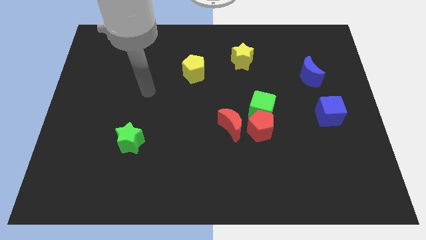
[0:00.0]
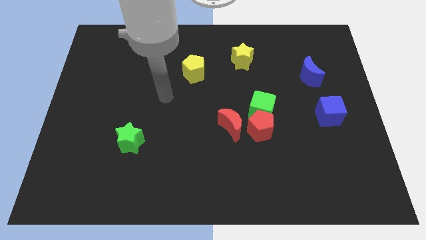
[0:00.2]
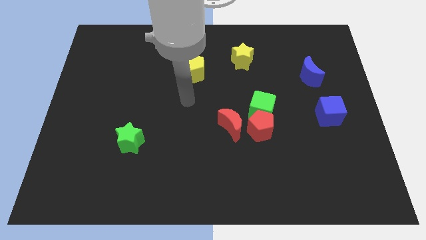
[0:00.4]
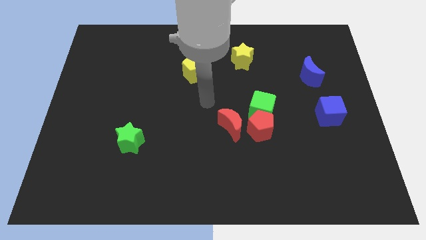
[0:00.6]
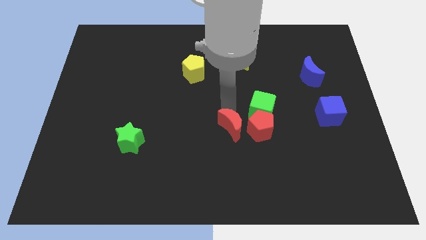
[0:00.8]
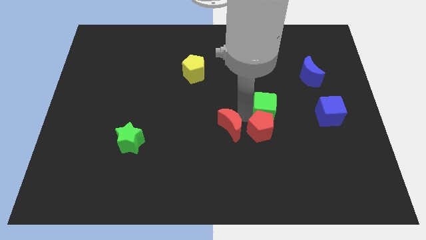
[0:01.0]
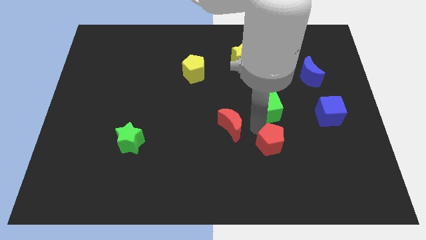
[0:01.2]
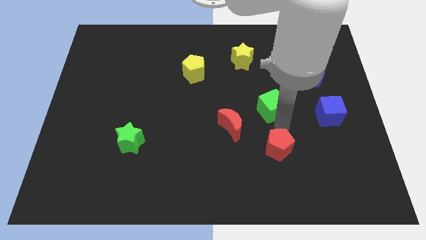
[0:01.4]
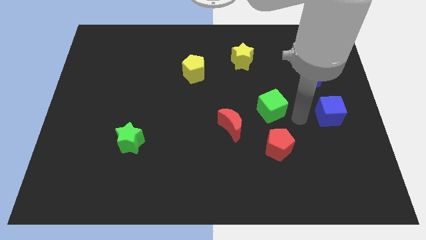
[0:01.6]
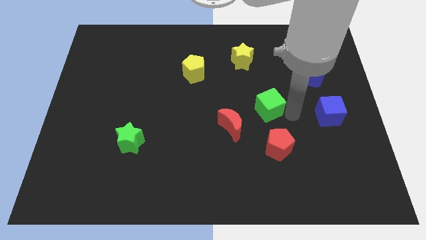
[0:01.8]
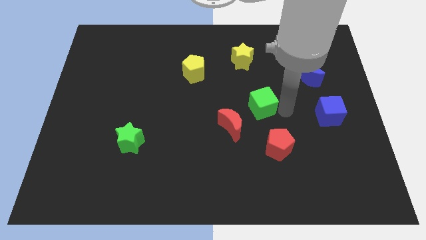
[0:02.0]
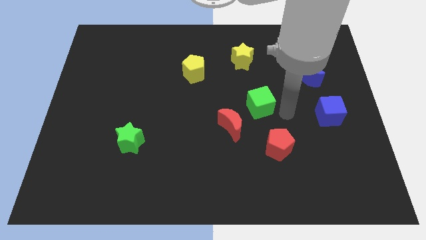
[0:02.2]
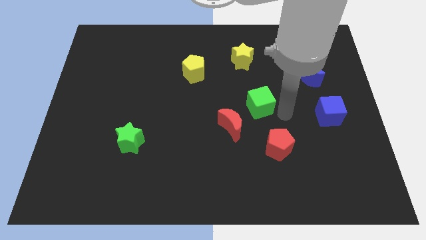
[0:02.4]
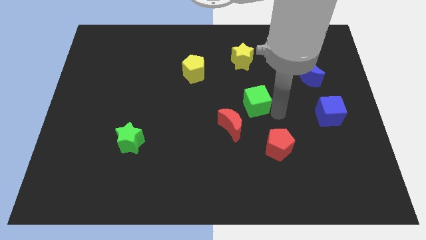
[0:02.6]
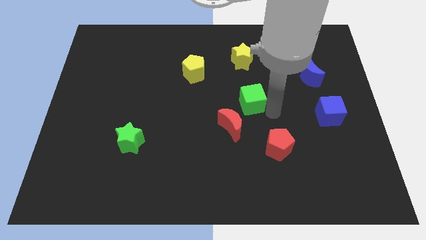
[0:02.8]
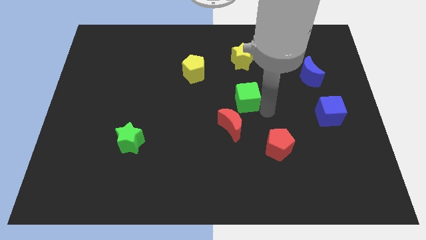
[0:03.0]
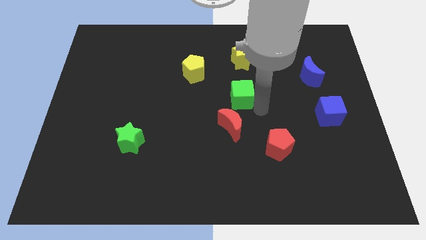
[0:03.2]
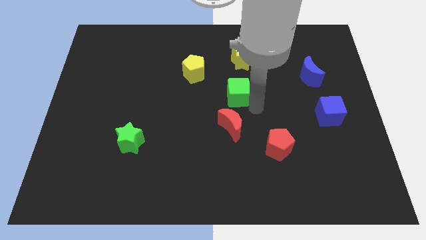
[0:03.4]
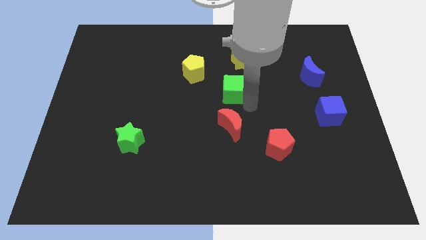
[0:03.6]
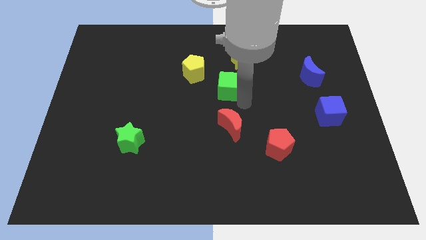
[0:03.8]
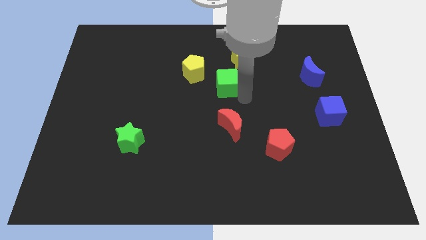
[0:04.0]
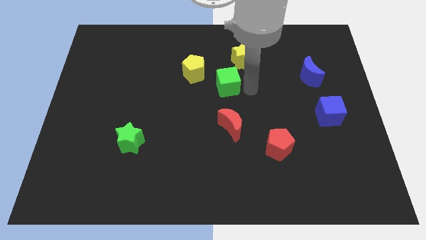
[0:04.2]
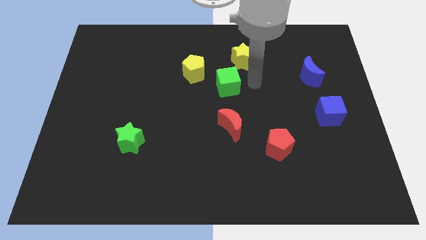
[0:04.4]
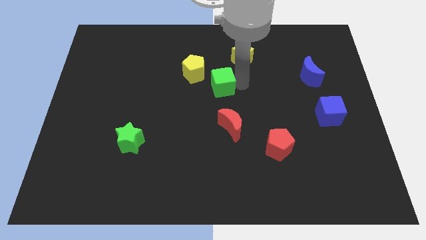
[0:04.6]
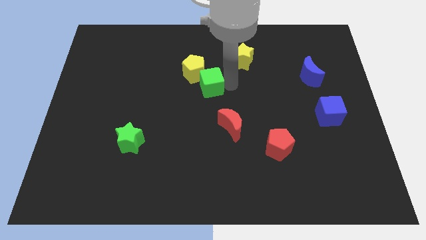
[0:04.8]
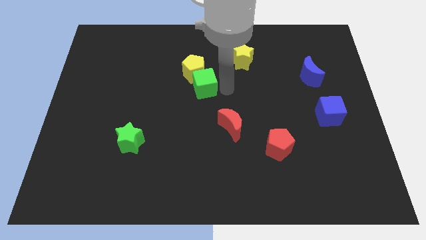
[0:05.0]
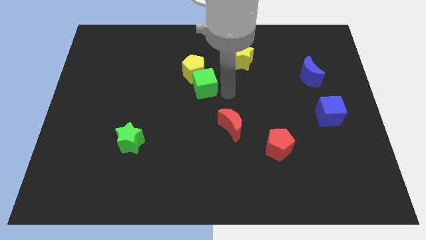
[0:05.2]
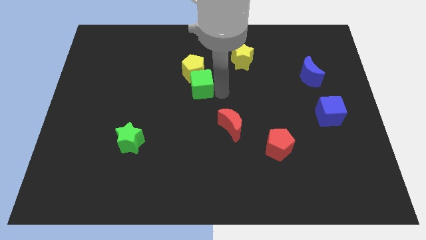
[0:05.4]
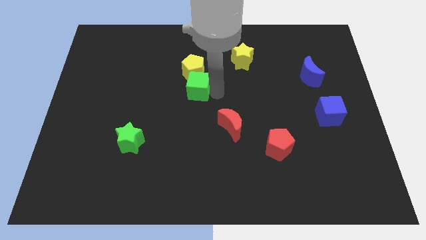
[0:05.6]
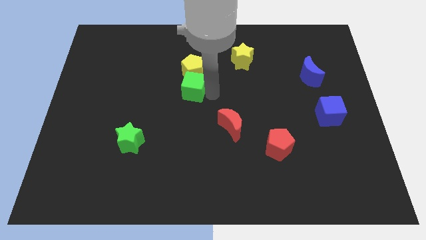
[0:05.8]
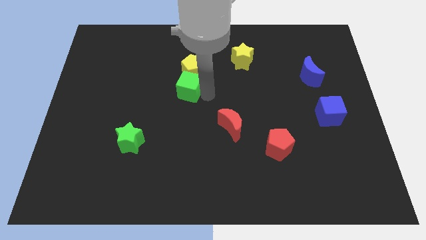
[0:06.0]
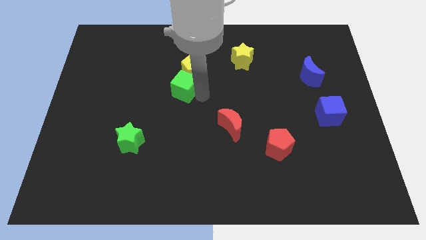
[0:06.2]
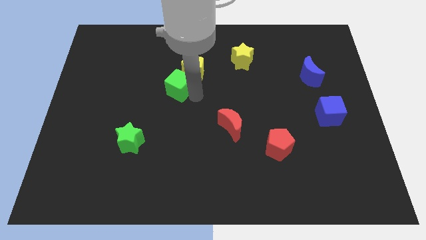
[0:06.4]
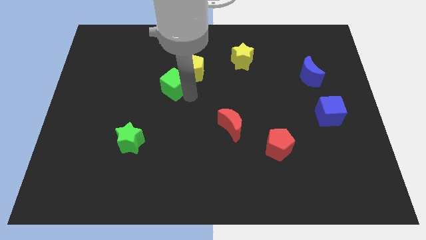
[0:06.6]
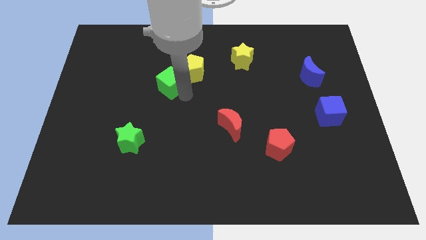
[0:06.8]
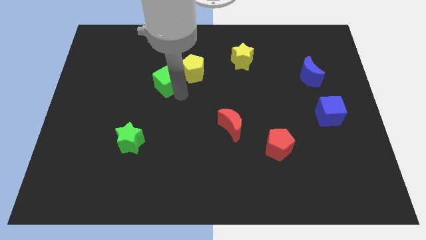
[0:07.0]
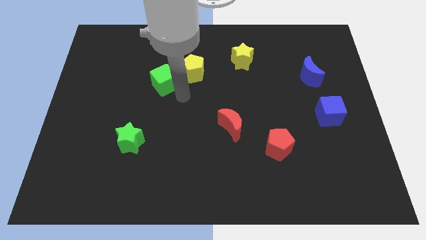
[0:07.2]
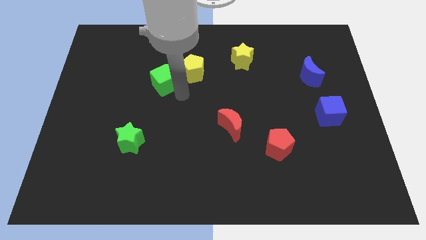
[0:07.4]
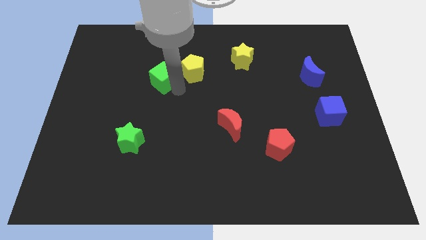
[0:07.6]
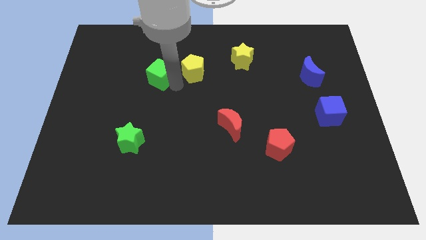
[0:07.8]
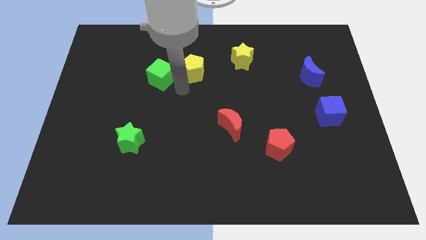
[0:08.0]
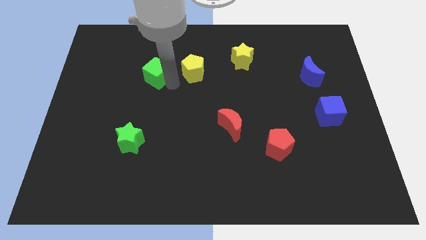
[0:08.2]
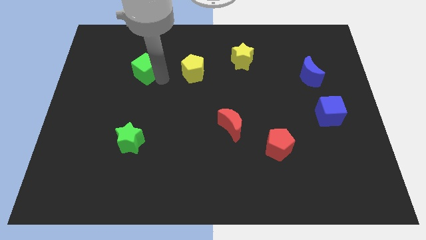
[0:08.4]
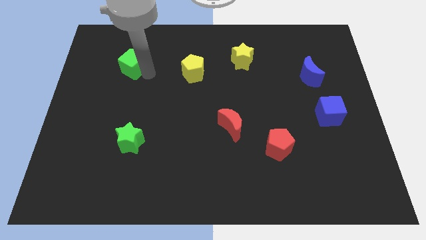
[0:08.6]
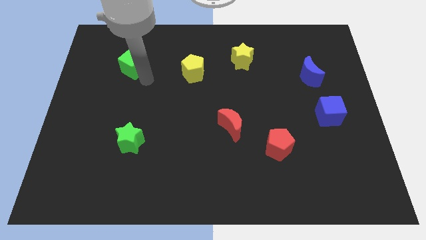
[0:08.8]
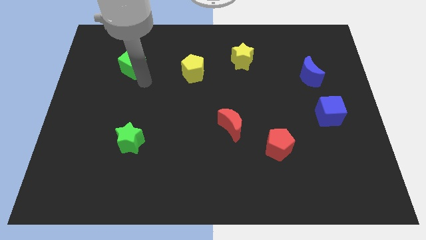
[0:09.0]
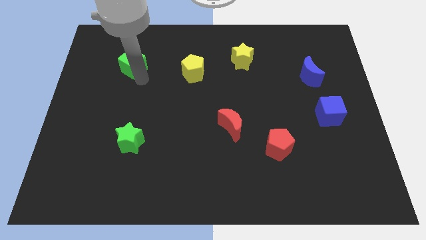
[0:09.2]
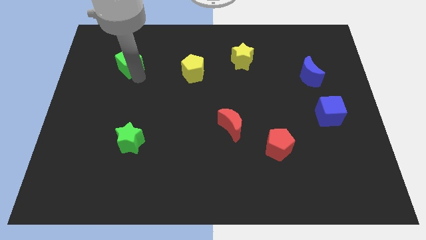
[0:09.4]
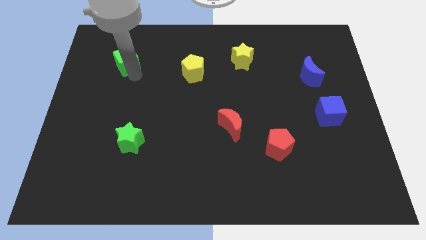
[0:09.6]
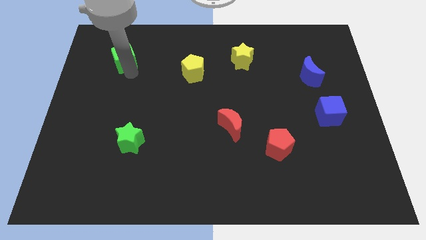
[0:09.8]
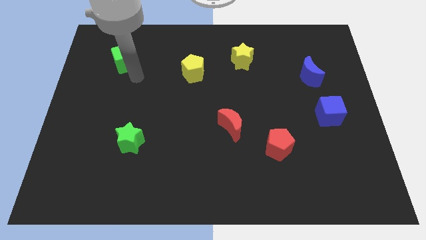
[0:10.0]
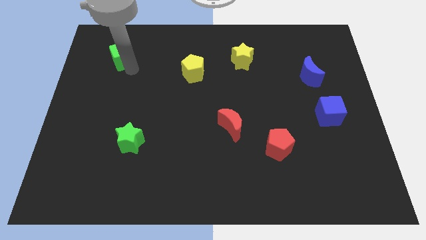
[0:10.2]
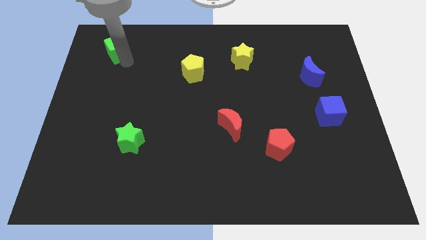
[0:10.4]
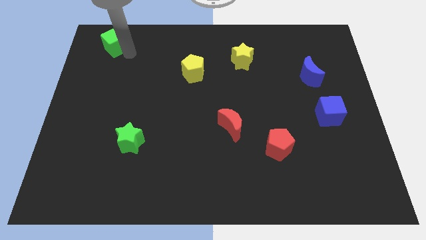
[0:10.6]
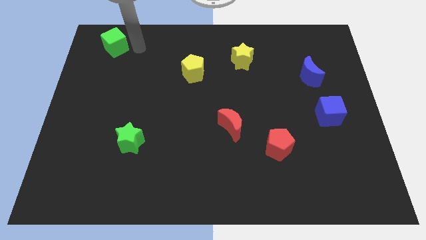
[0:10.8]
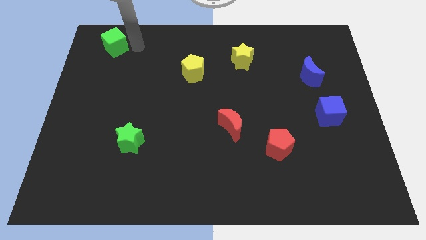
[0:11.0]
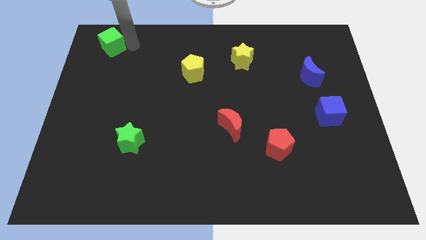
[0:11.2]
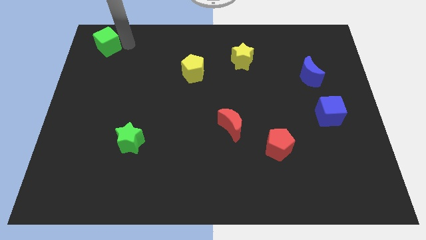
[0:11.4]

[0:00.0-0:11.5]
put the green cube to the top left corner

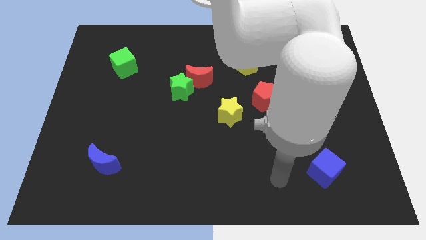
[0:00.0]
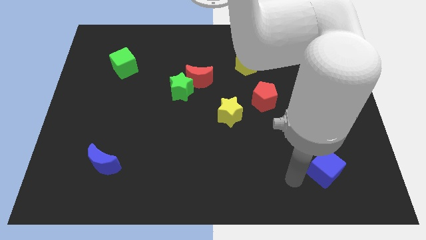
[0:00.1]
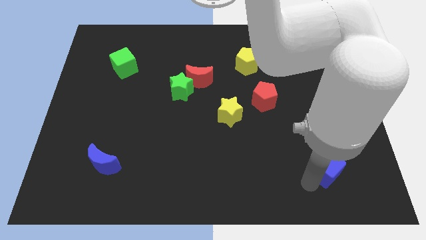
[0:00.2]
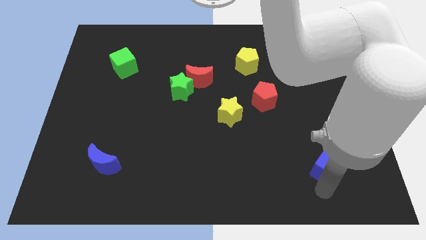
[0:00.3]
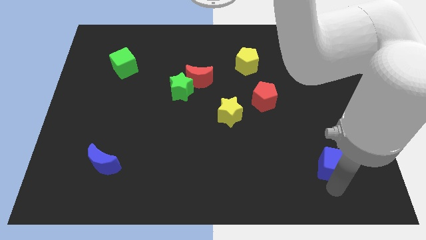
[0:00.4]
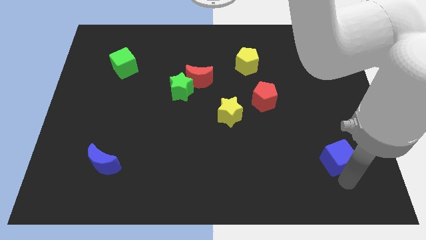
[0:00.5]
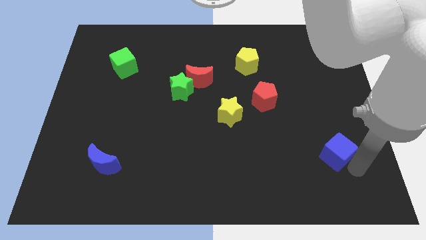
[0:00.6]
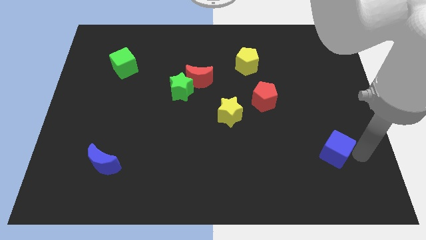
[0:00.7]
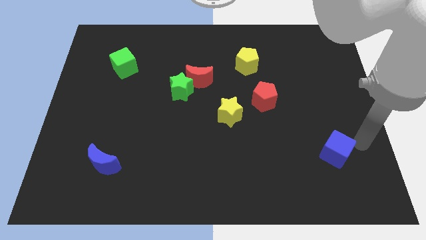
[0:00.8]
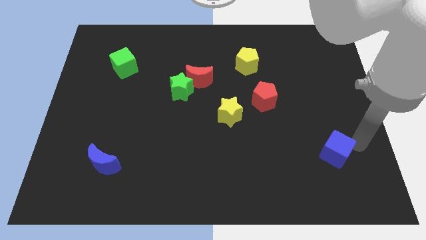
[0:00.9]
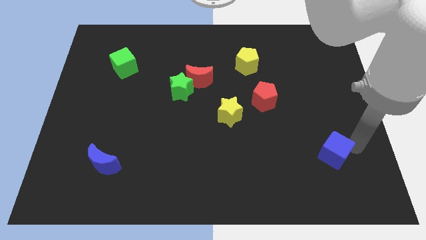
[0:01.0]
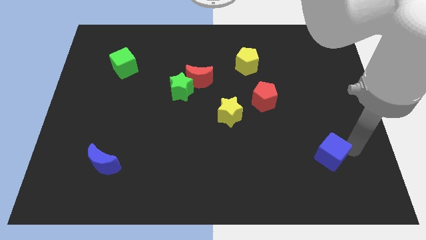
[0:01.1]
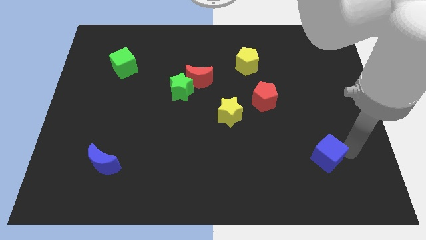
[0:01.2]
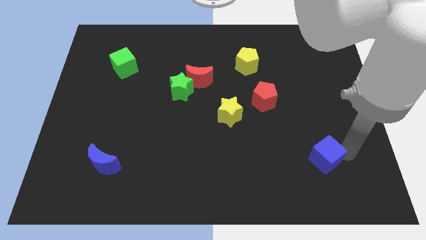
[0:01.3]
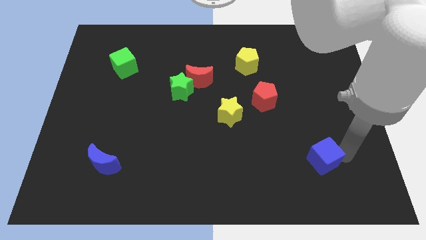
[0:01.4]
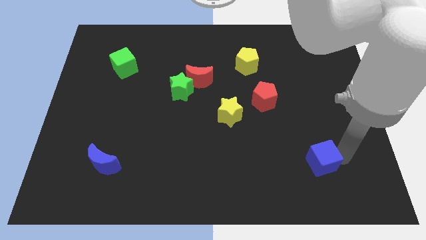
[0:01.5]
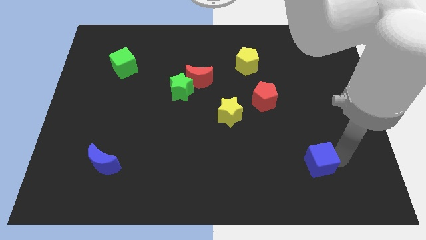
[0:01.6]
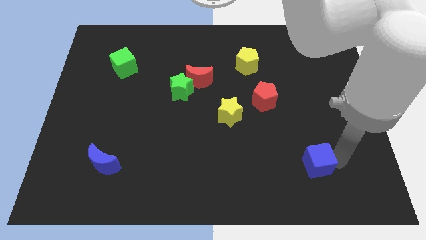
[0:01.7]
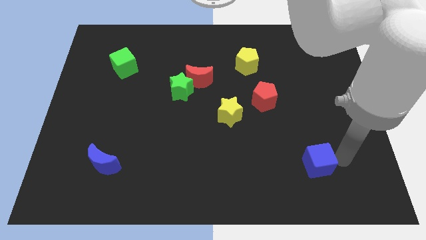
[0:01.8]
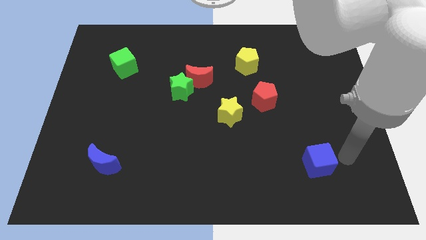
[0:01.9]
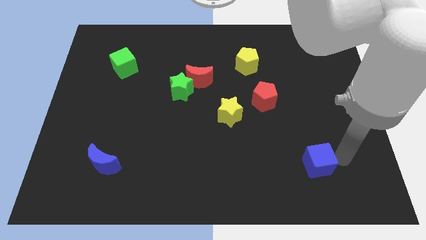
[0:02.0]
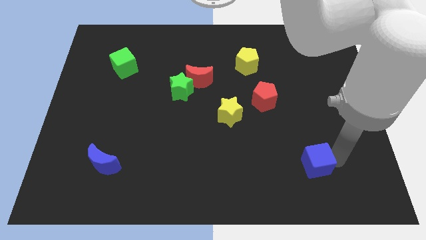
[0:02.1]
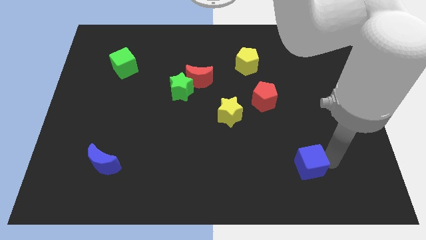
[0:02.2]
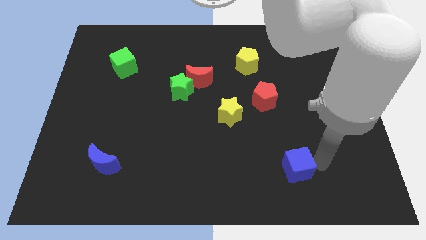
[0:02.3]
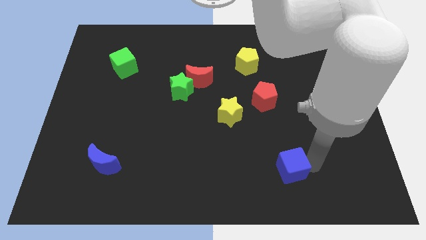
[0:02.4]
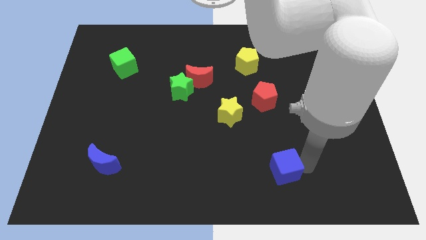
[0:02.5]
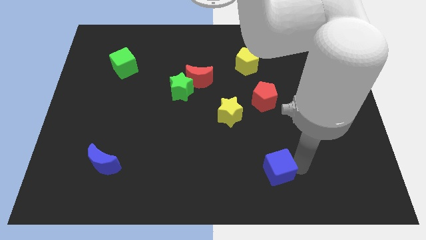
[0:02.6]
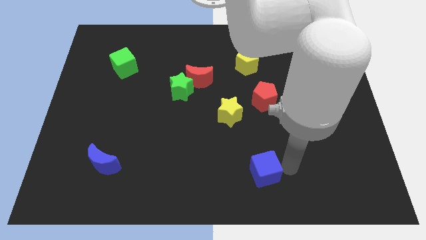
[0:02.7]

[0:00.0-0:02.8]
slide the blue cube to the bottom side
